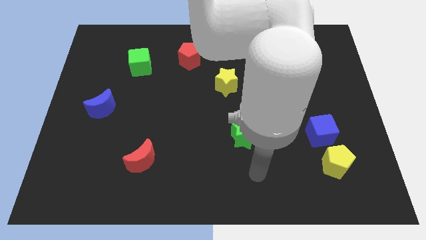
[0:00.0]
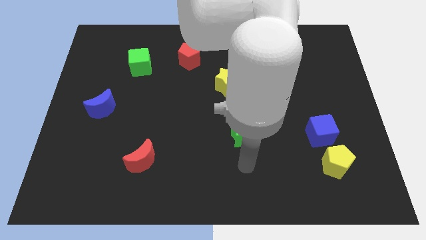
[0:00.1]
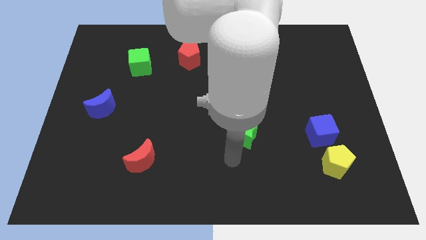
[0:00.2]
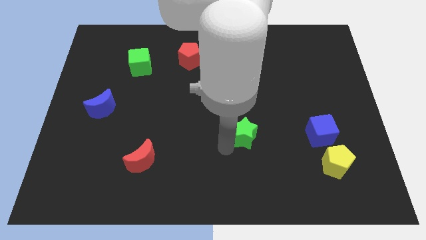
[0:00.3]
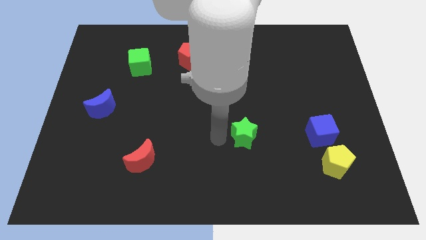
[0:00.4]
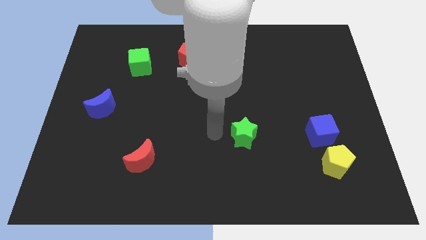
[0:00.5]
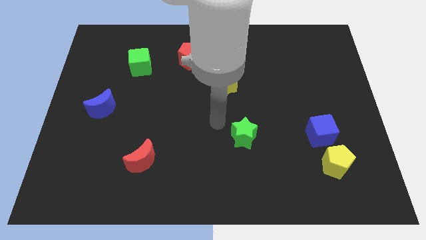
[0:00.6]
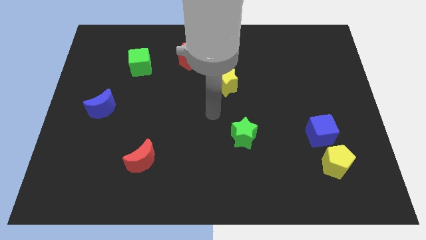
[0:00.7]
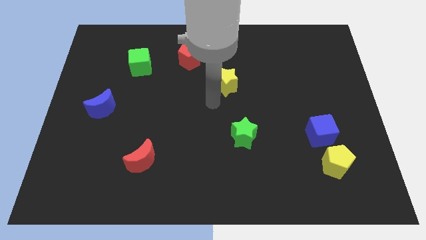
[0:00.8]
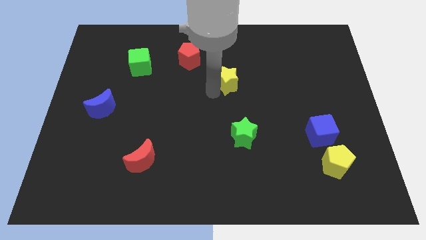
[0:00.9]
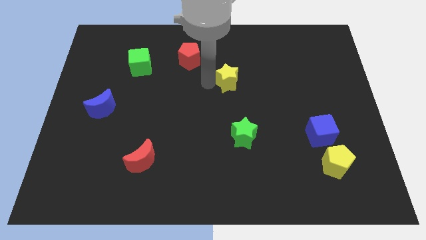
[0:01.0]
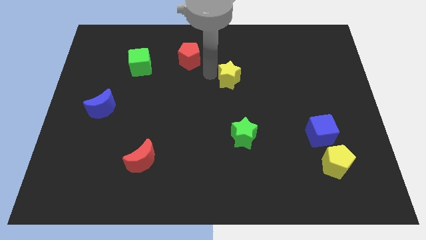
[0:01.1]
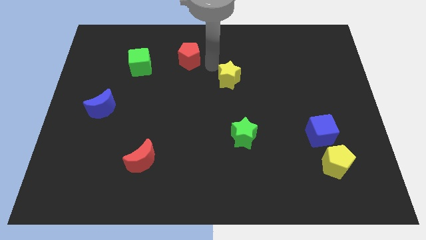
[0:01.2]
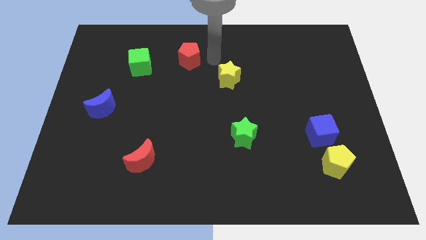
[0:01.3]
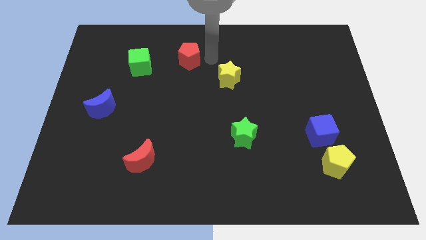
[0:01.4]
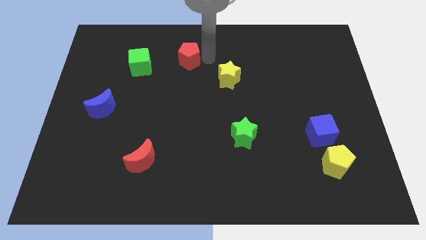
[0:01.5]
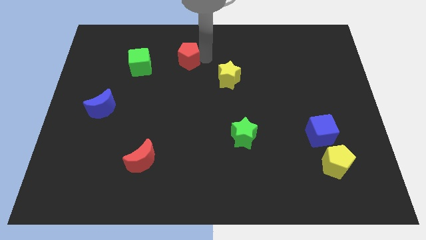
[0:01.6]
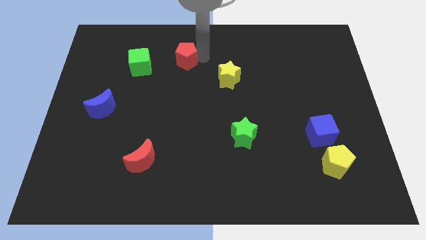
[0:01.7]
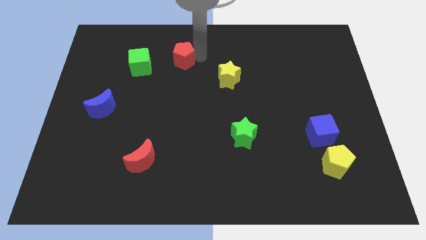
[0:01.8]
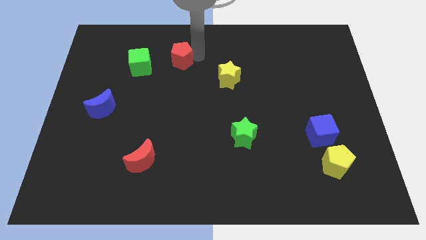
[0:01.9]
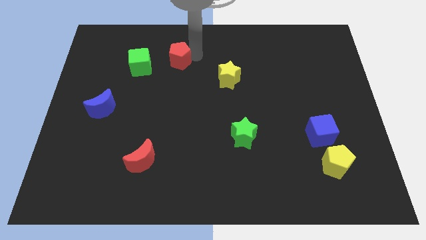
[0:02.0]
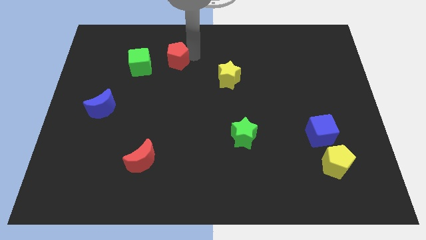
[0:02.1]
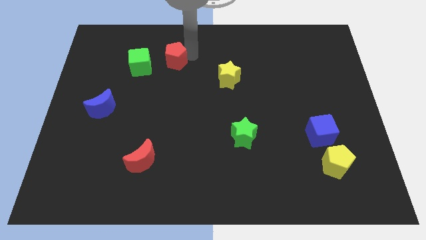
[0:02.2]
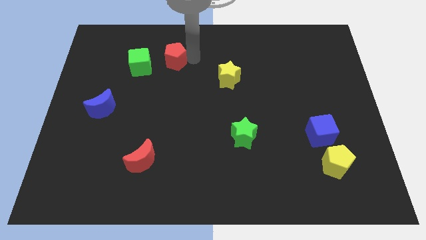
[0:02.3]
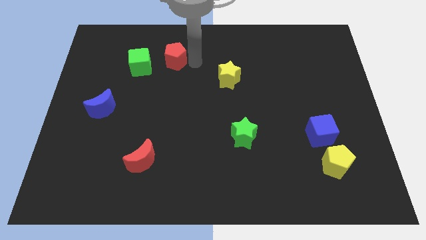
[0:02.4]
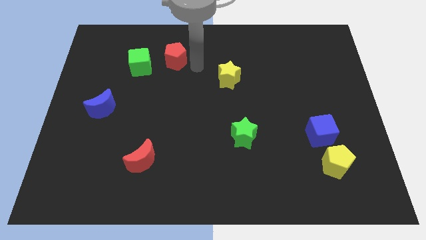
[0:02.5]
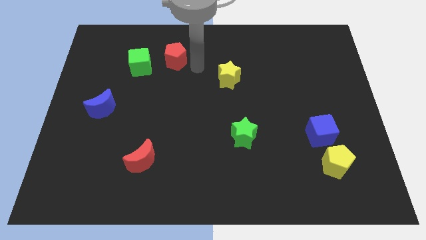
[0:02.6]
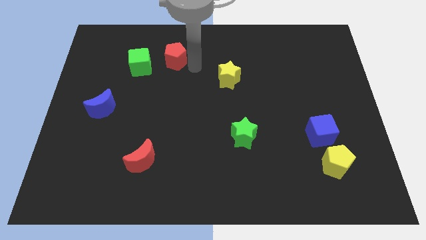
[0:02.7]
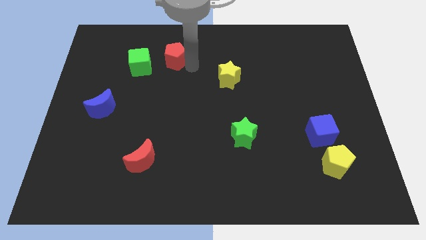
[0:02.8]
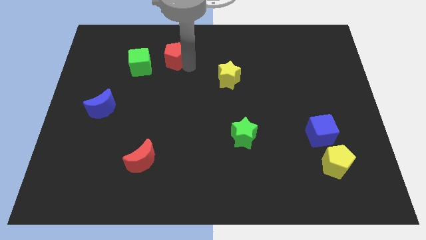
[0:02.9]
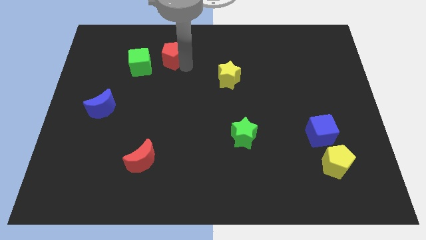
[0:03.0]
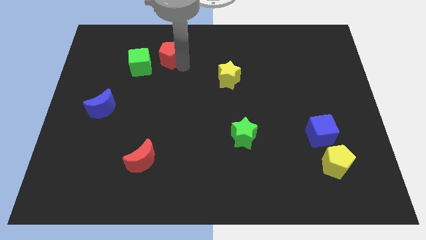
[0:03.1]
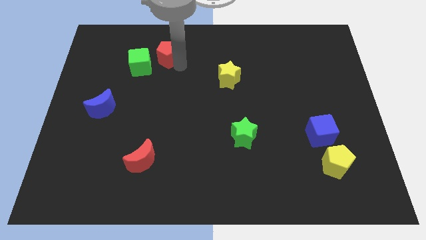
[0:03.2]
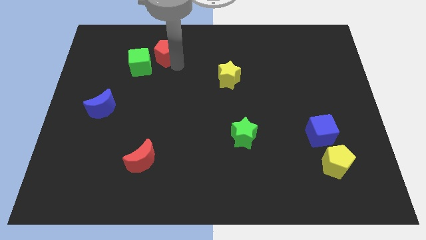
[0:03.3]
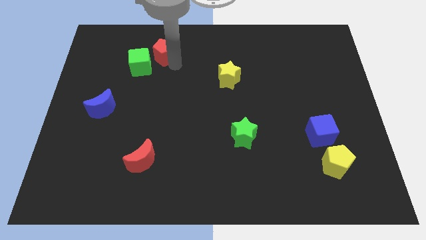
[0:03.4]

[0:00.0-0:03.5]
push the red pentagon a bit to the left

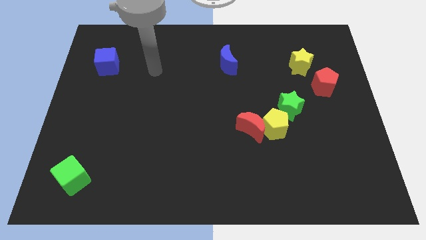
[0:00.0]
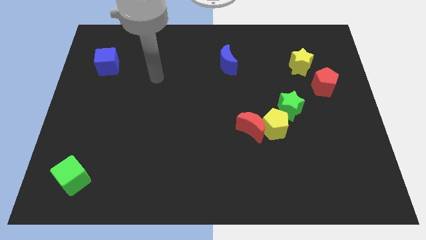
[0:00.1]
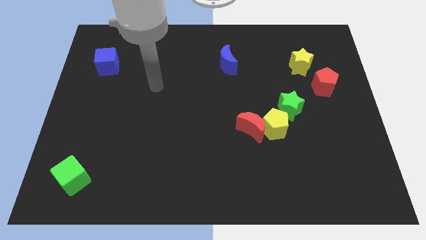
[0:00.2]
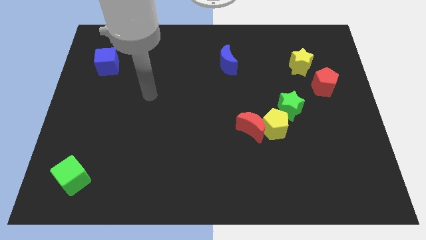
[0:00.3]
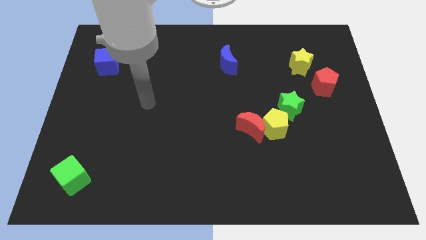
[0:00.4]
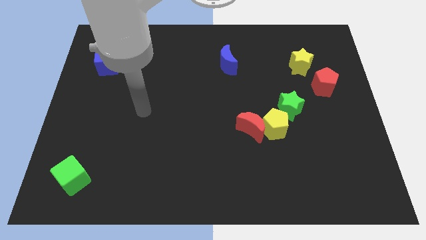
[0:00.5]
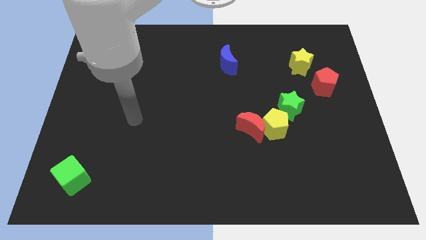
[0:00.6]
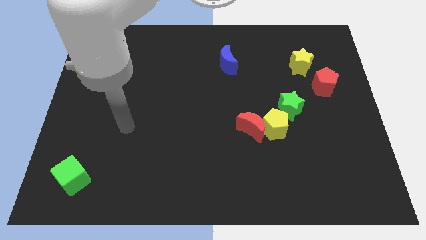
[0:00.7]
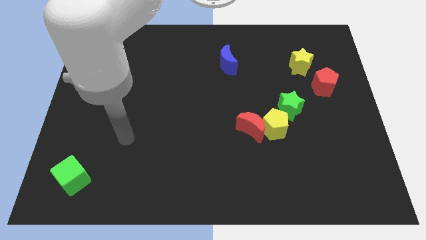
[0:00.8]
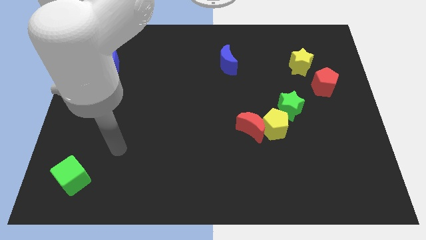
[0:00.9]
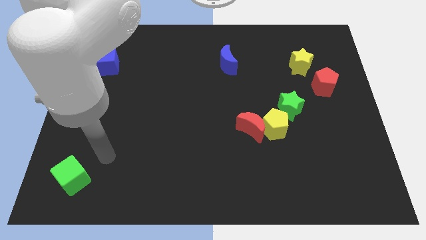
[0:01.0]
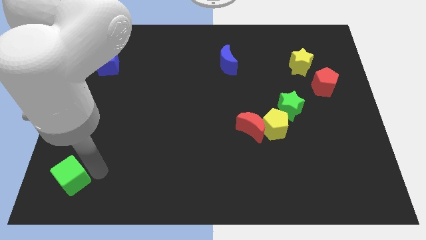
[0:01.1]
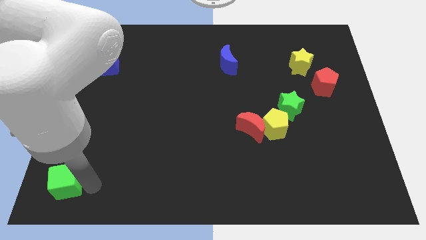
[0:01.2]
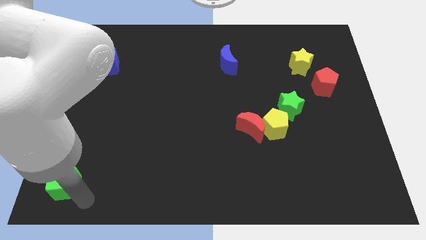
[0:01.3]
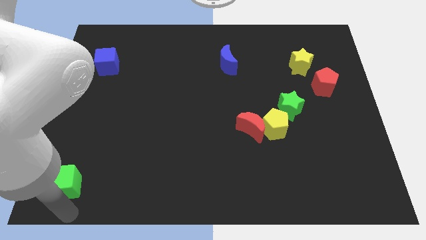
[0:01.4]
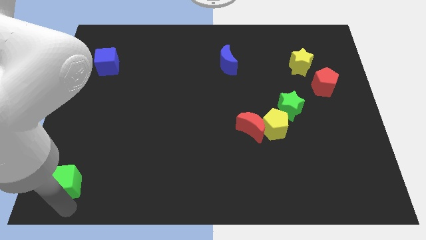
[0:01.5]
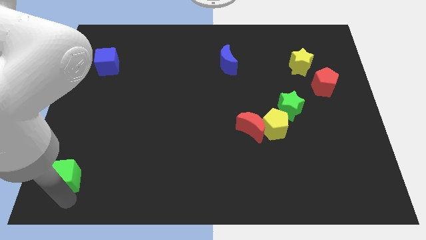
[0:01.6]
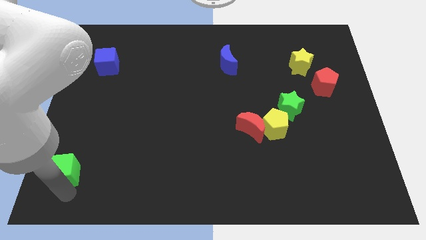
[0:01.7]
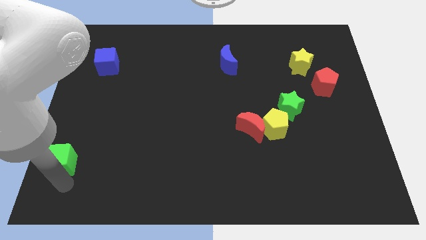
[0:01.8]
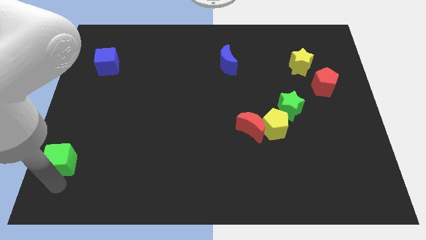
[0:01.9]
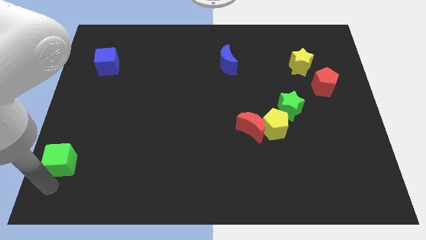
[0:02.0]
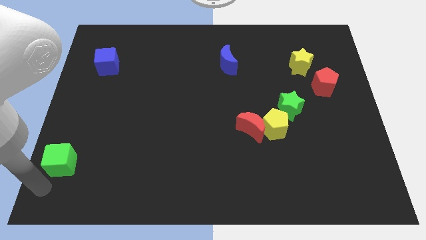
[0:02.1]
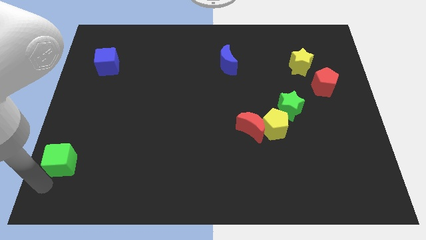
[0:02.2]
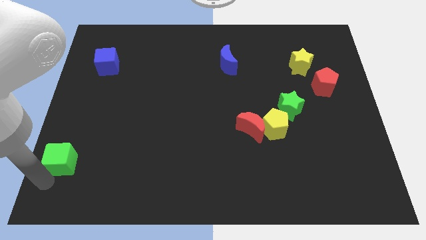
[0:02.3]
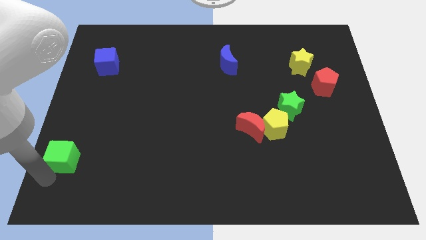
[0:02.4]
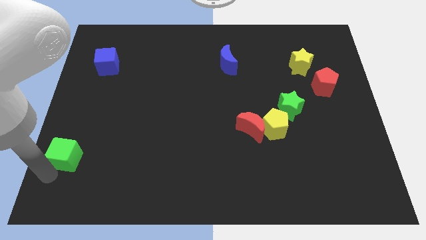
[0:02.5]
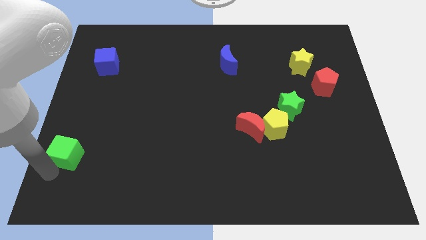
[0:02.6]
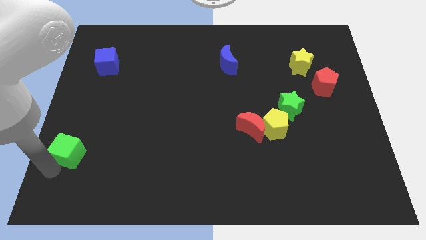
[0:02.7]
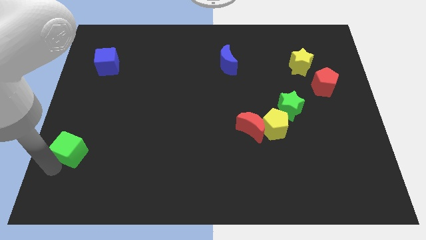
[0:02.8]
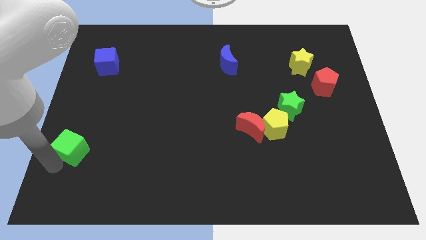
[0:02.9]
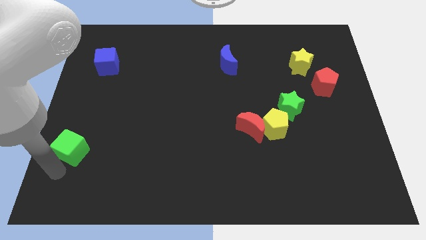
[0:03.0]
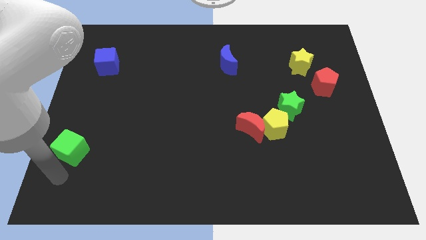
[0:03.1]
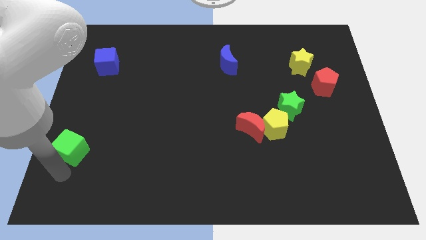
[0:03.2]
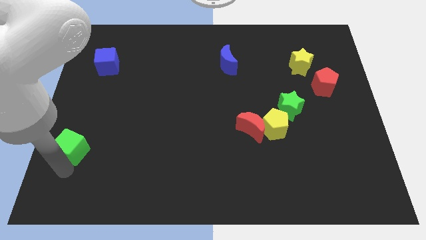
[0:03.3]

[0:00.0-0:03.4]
slightly slide the green cube upwards

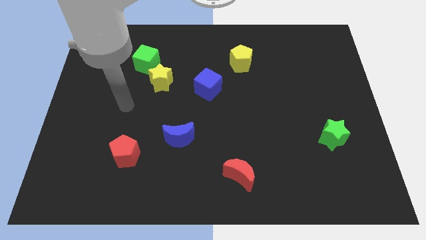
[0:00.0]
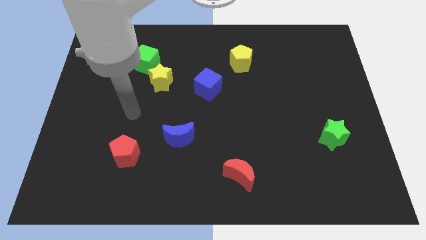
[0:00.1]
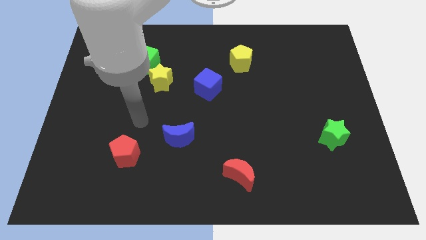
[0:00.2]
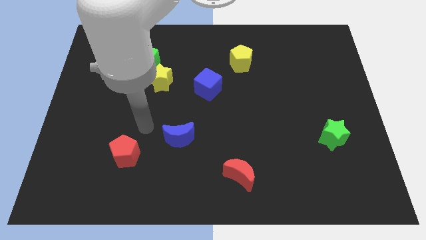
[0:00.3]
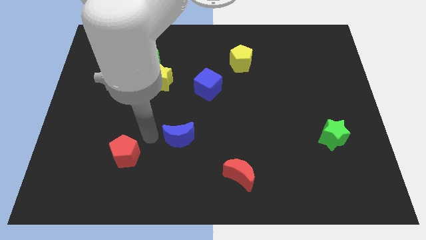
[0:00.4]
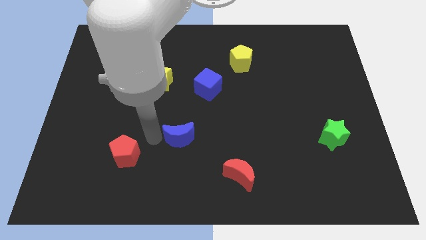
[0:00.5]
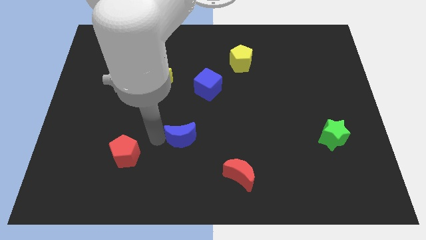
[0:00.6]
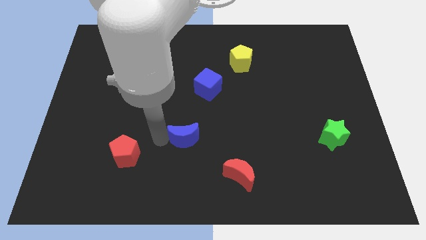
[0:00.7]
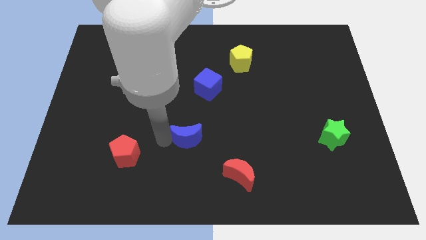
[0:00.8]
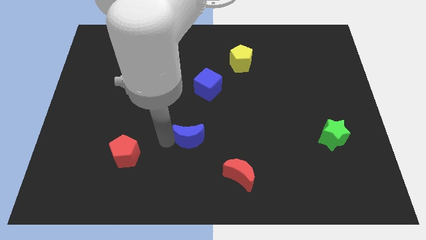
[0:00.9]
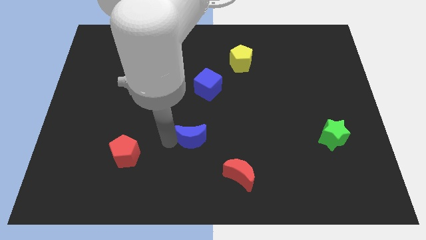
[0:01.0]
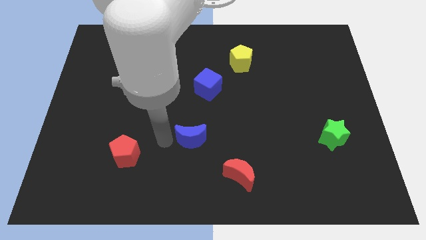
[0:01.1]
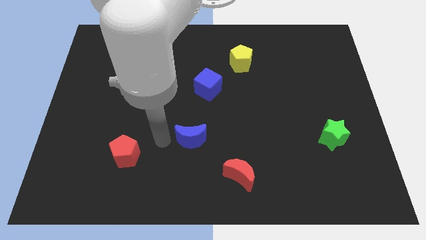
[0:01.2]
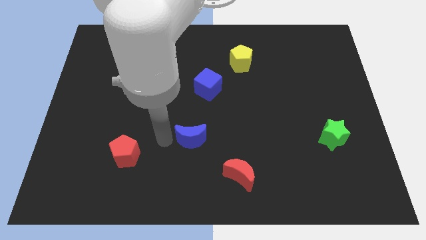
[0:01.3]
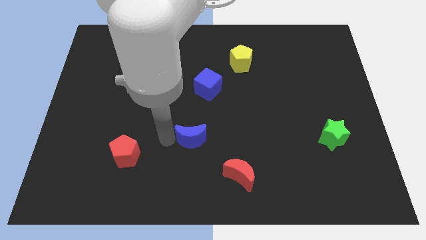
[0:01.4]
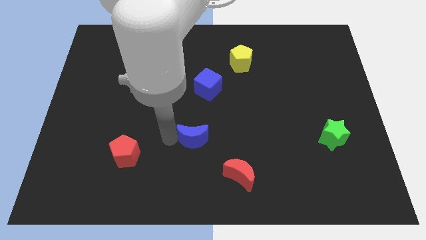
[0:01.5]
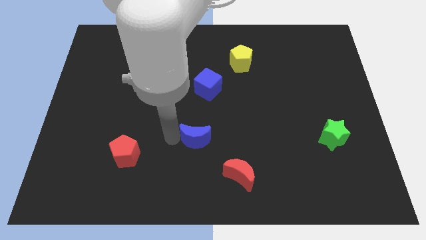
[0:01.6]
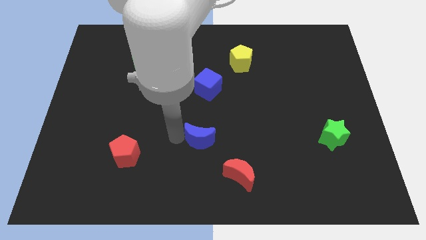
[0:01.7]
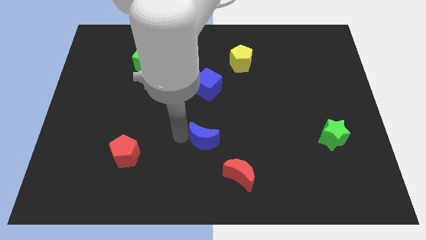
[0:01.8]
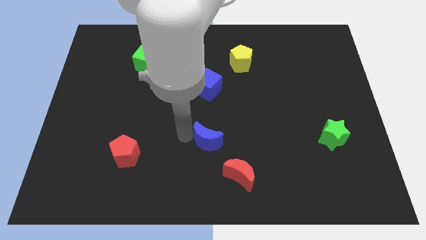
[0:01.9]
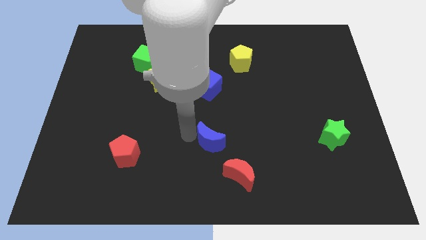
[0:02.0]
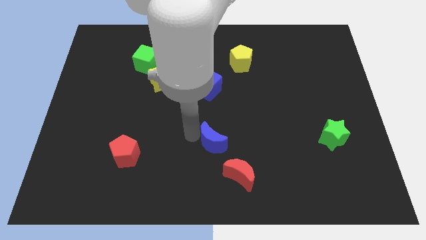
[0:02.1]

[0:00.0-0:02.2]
slightly push the blue moon right
